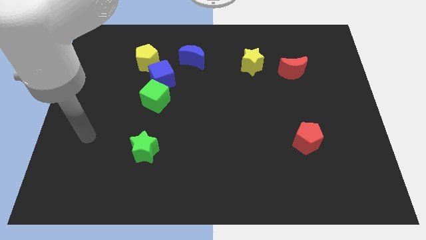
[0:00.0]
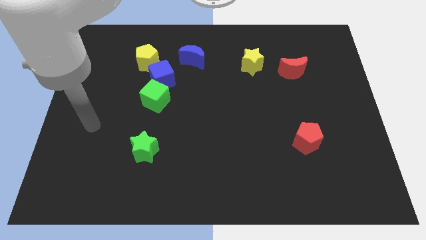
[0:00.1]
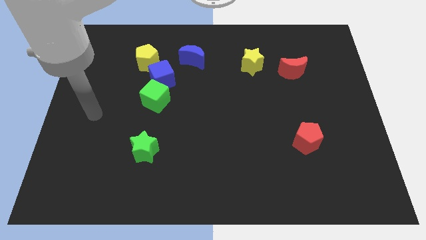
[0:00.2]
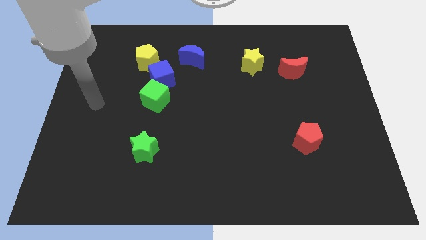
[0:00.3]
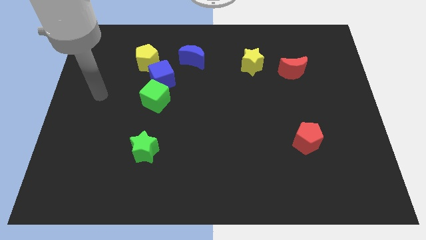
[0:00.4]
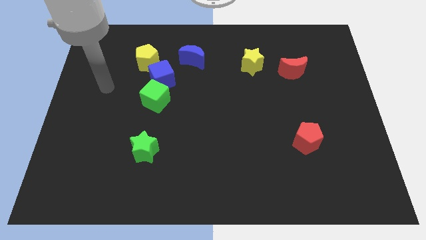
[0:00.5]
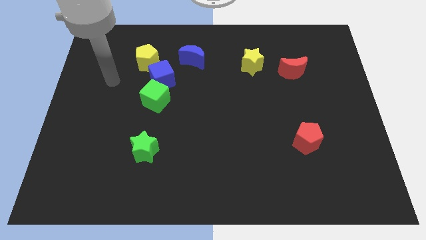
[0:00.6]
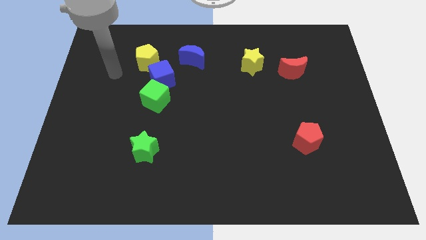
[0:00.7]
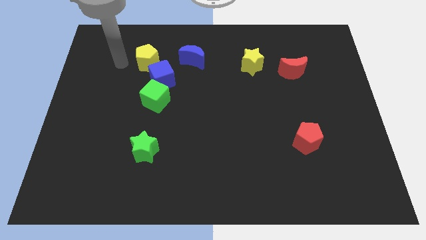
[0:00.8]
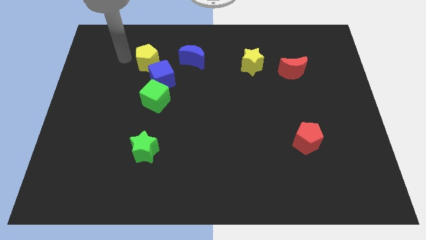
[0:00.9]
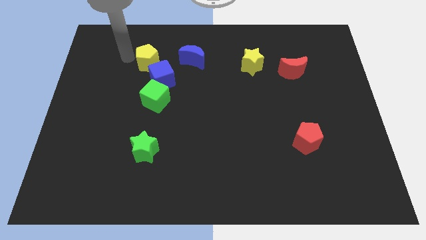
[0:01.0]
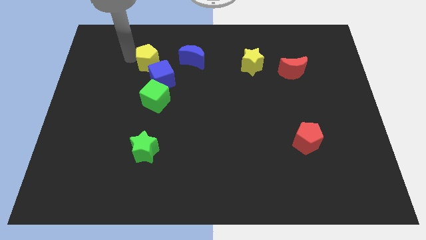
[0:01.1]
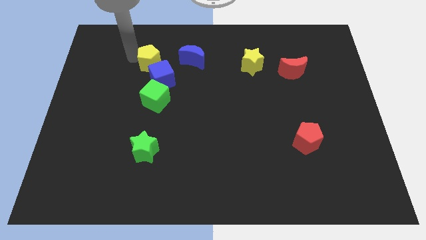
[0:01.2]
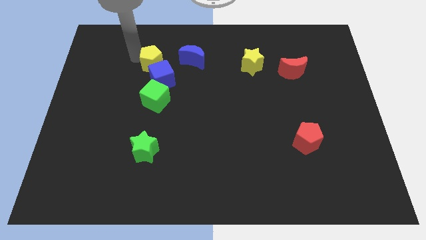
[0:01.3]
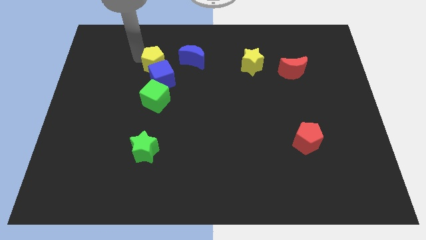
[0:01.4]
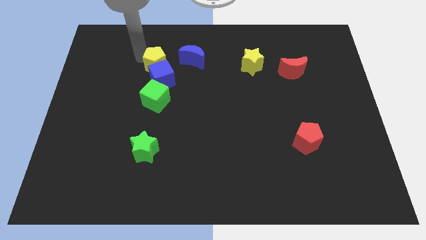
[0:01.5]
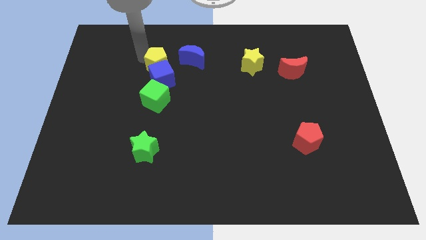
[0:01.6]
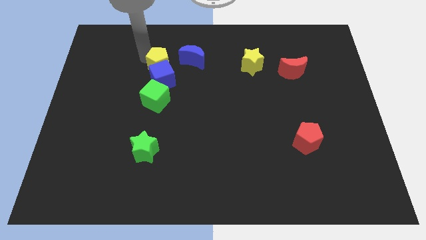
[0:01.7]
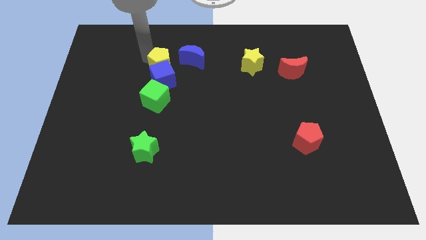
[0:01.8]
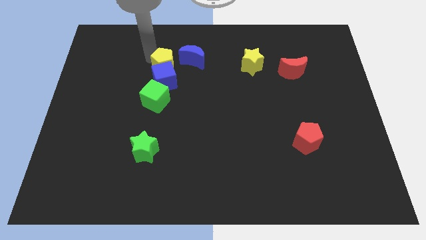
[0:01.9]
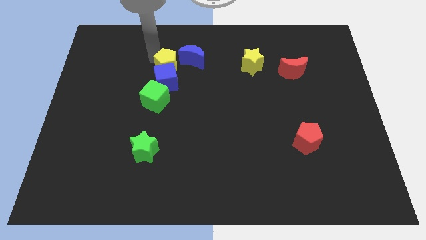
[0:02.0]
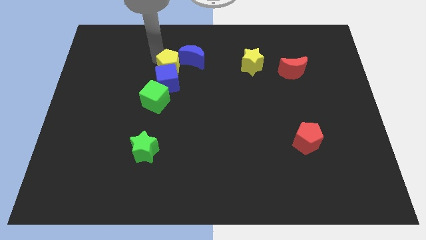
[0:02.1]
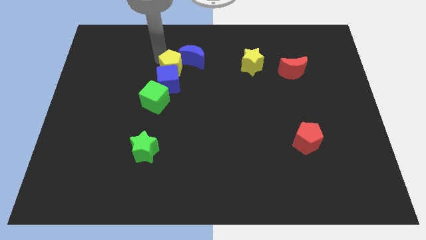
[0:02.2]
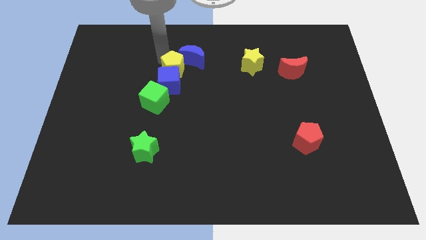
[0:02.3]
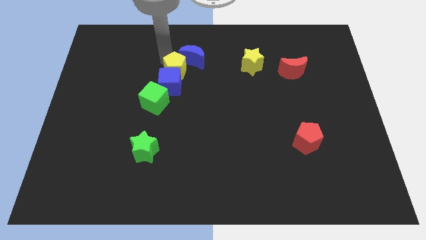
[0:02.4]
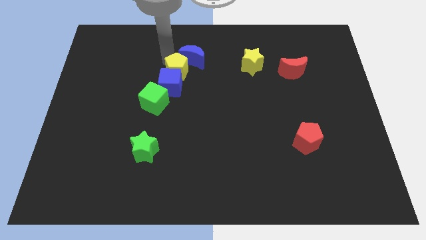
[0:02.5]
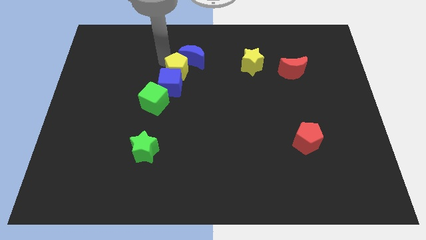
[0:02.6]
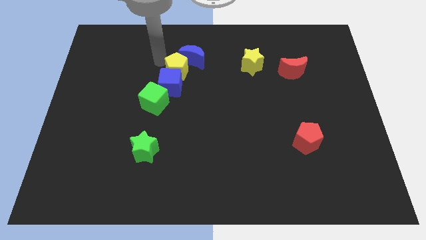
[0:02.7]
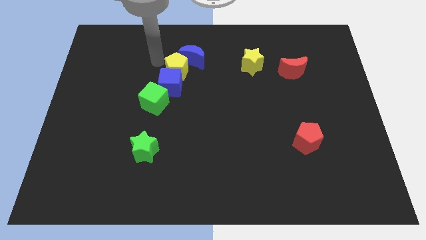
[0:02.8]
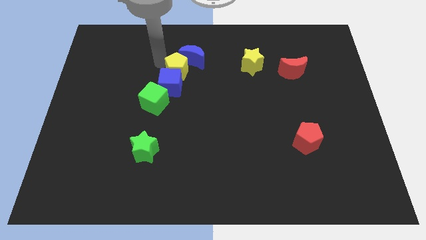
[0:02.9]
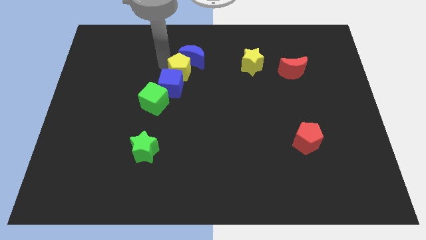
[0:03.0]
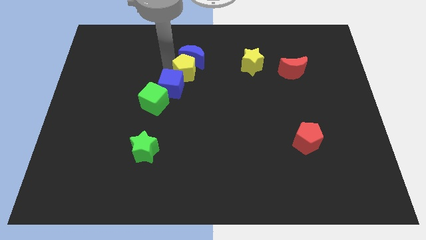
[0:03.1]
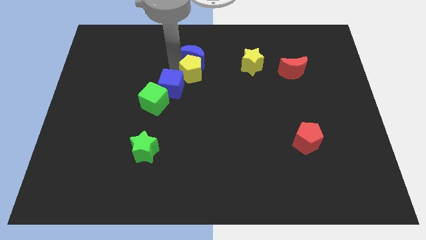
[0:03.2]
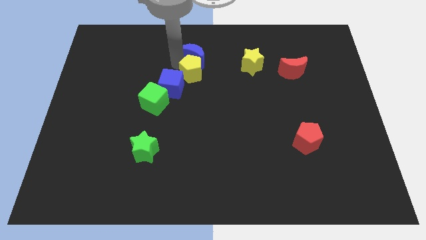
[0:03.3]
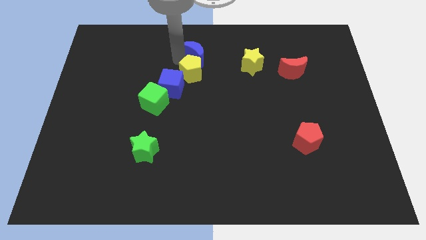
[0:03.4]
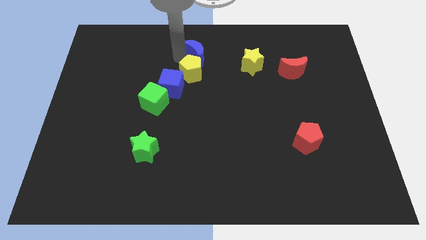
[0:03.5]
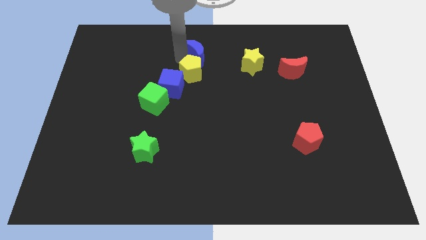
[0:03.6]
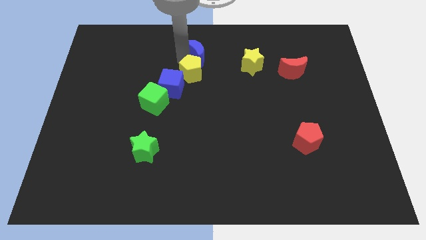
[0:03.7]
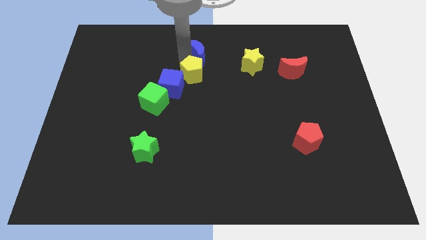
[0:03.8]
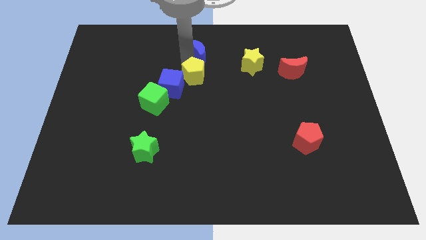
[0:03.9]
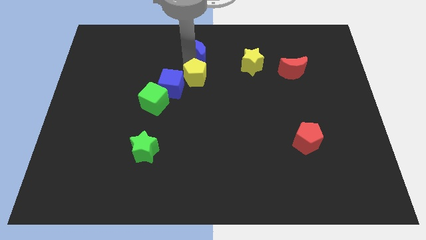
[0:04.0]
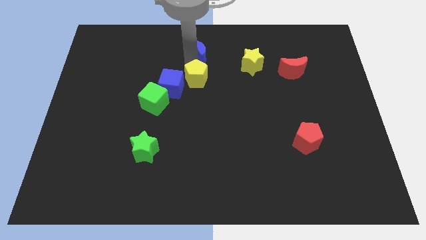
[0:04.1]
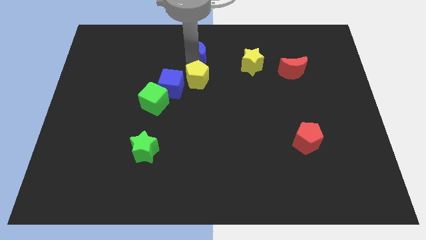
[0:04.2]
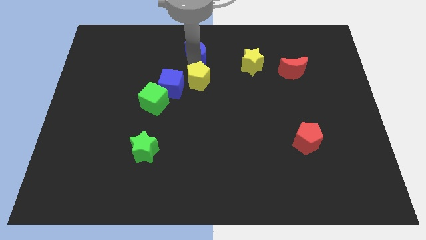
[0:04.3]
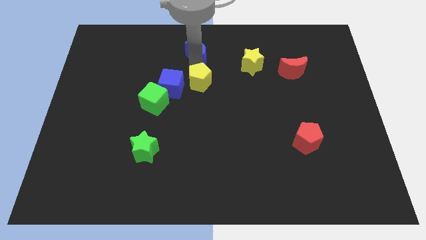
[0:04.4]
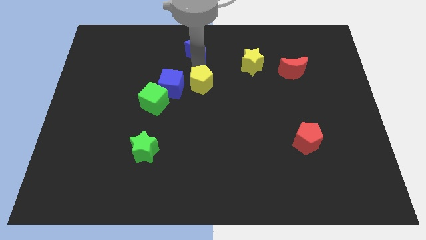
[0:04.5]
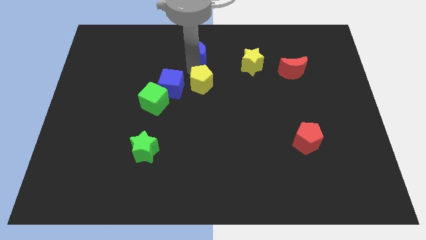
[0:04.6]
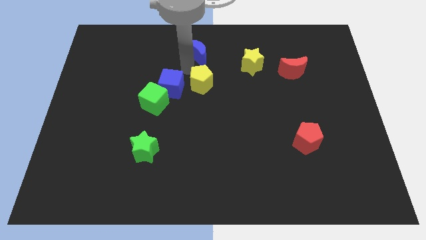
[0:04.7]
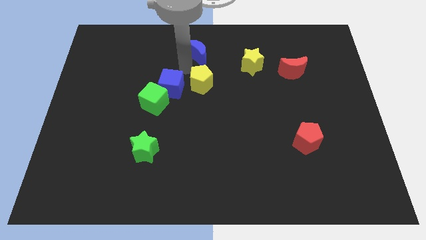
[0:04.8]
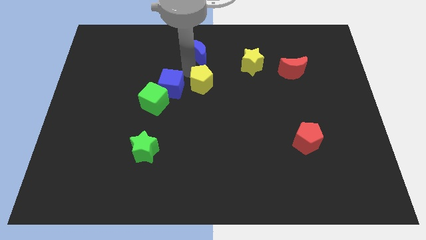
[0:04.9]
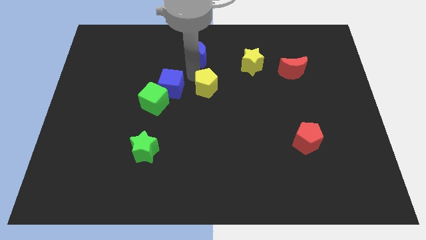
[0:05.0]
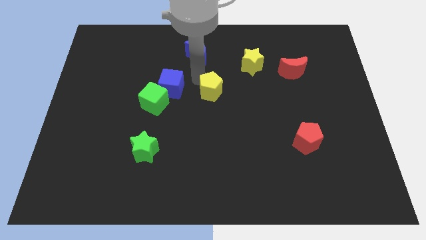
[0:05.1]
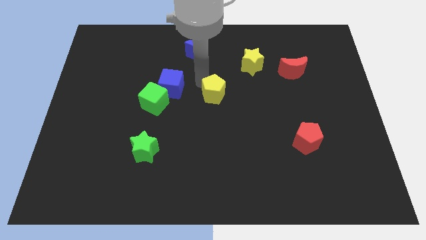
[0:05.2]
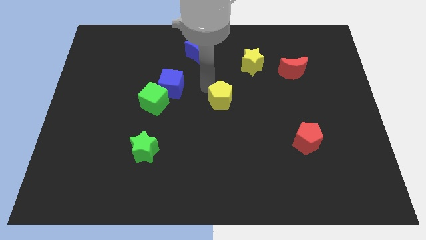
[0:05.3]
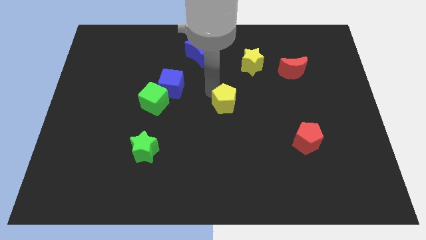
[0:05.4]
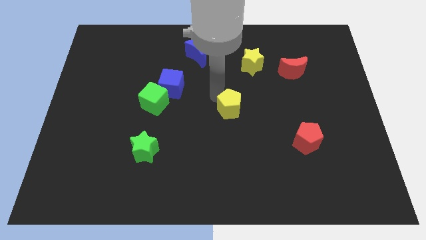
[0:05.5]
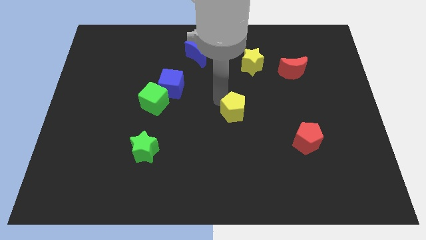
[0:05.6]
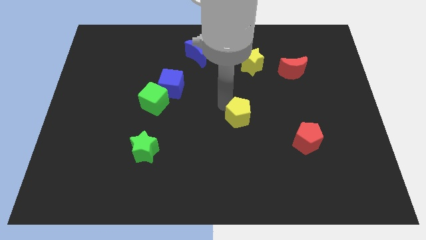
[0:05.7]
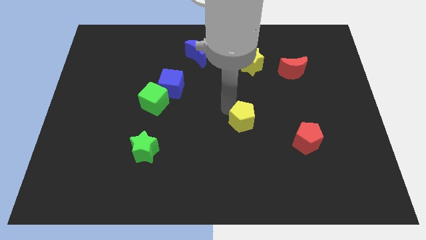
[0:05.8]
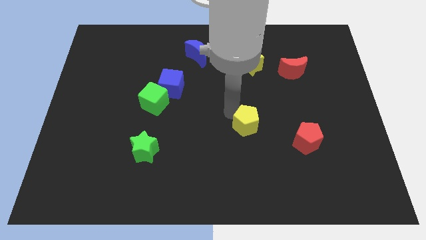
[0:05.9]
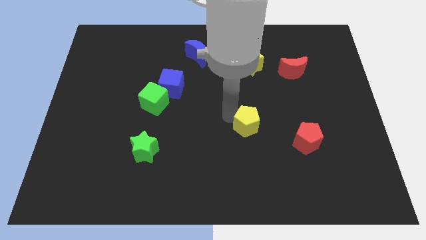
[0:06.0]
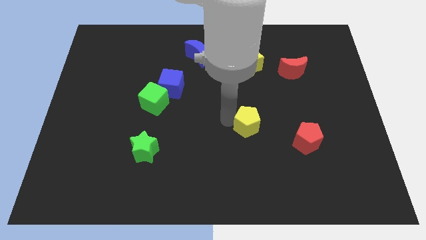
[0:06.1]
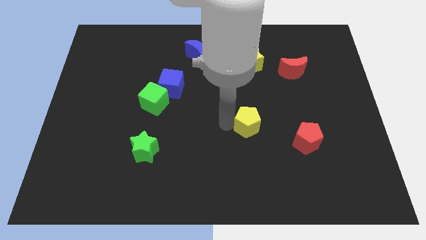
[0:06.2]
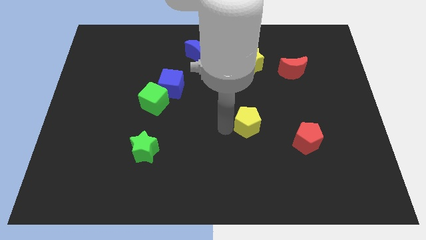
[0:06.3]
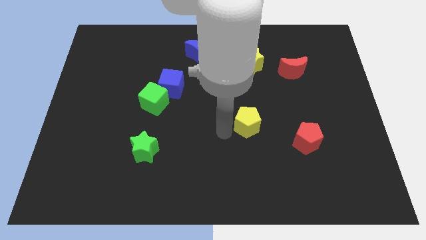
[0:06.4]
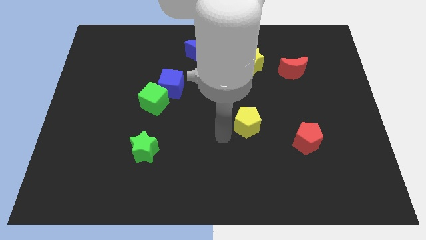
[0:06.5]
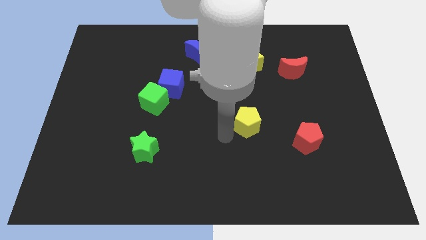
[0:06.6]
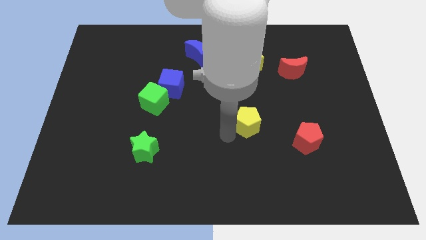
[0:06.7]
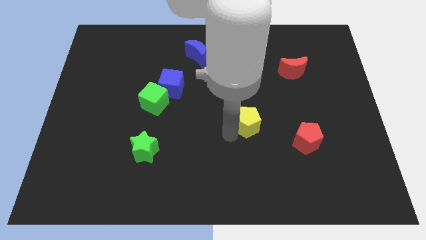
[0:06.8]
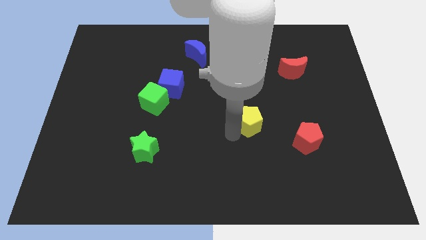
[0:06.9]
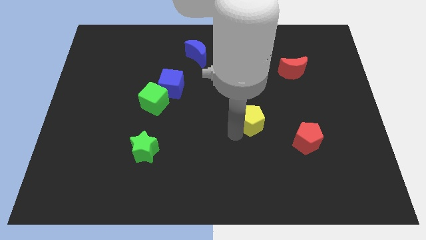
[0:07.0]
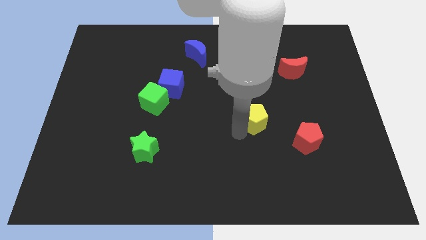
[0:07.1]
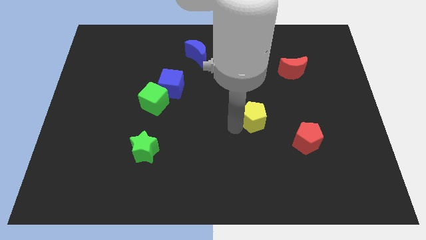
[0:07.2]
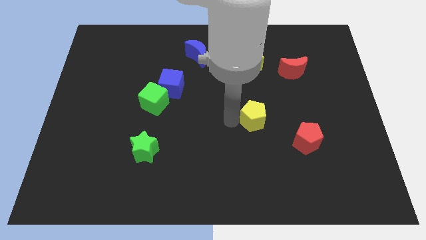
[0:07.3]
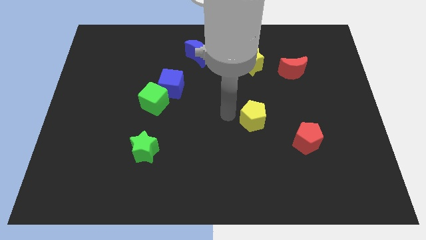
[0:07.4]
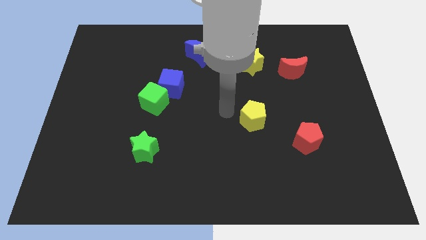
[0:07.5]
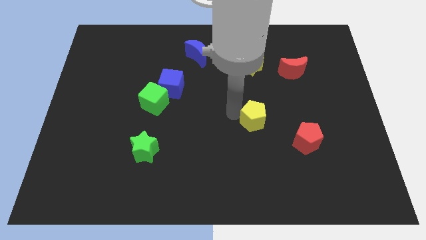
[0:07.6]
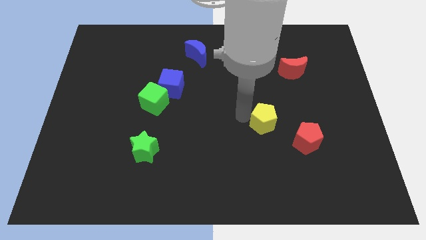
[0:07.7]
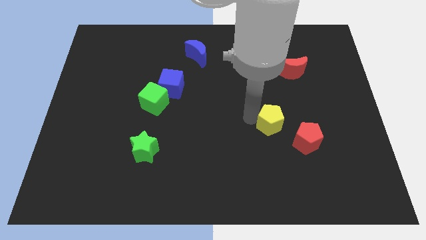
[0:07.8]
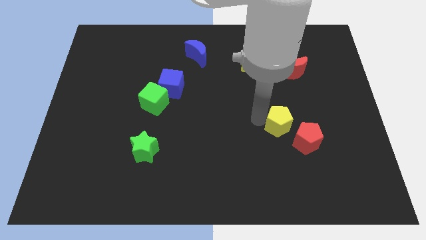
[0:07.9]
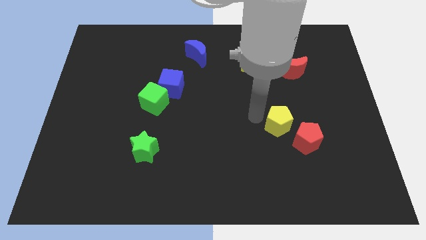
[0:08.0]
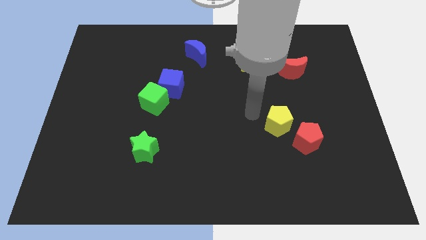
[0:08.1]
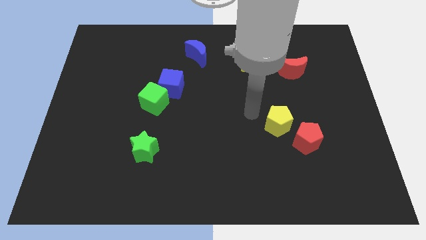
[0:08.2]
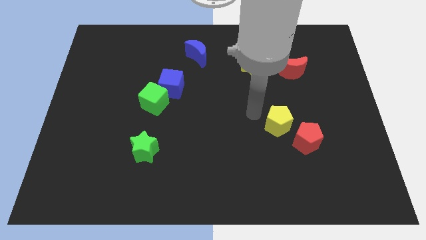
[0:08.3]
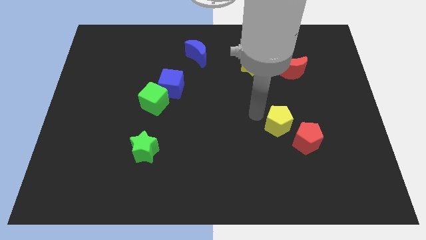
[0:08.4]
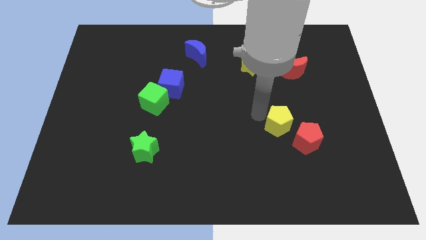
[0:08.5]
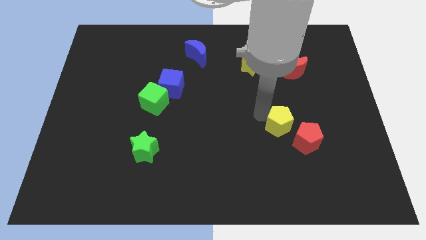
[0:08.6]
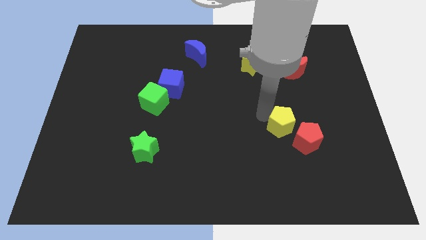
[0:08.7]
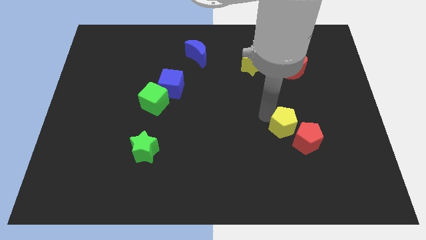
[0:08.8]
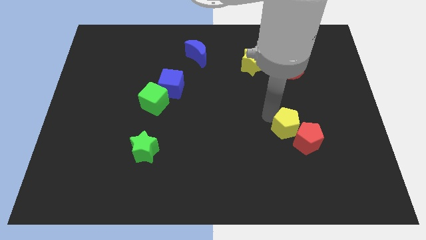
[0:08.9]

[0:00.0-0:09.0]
slide the yellow pentagon to the red pentagon
